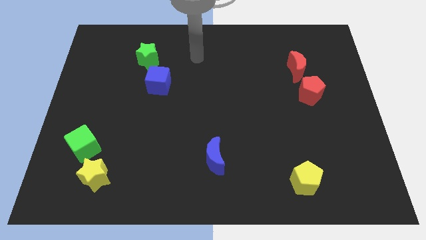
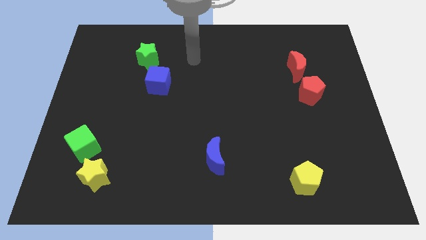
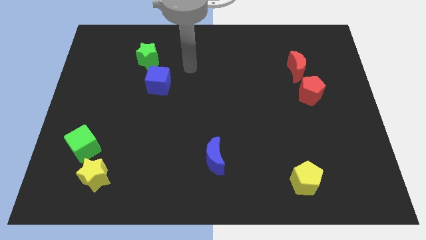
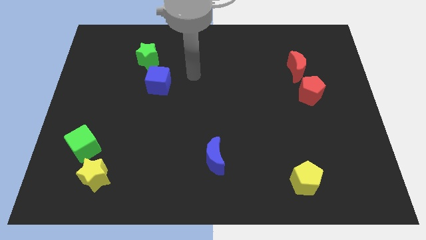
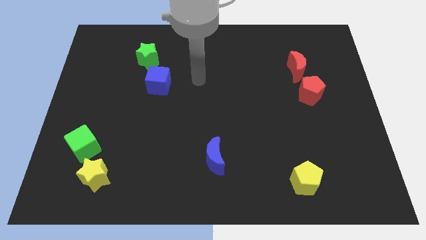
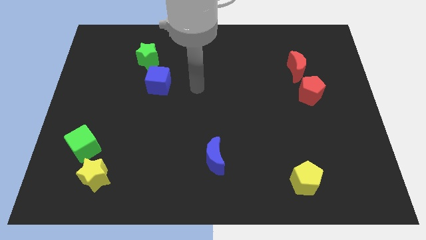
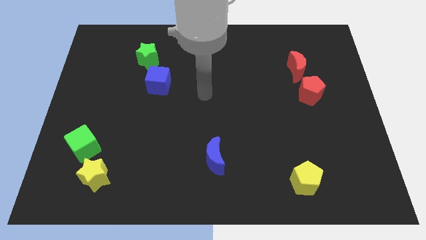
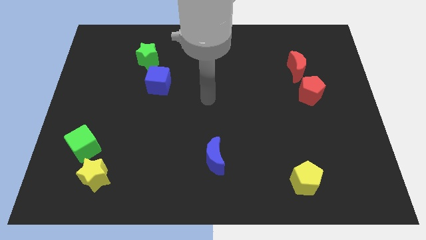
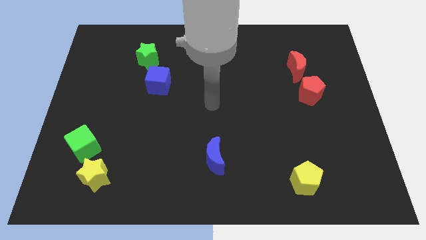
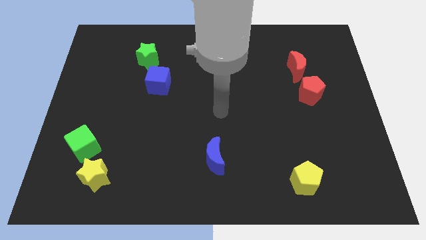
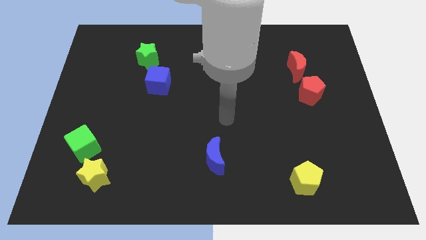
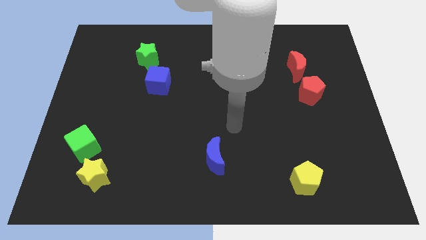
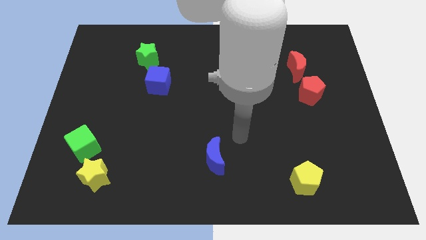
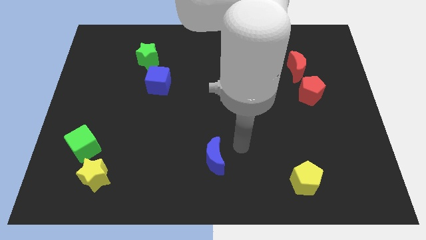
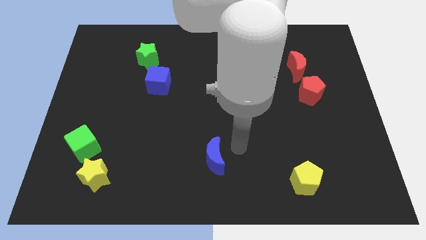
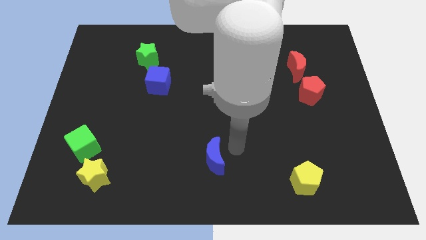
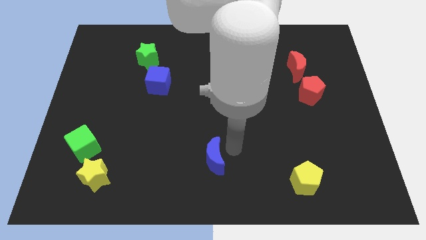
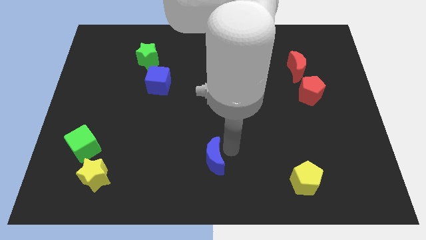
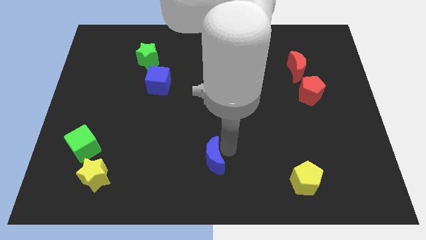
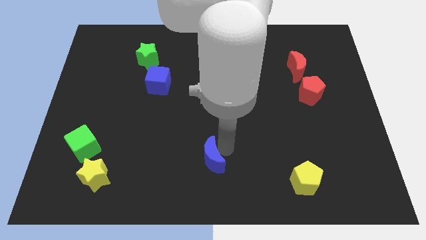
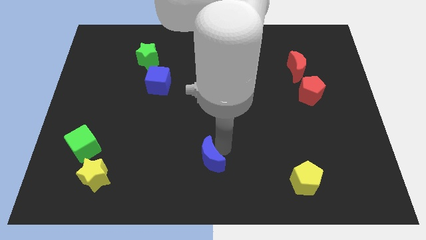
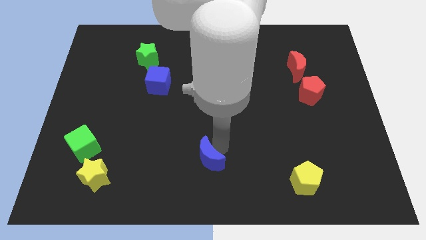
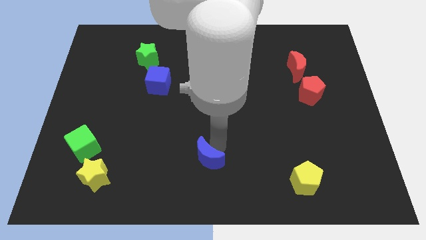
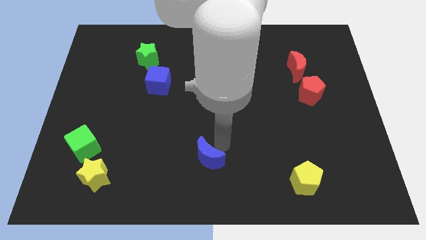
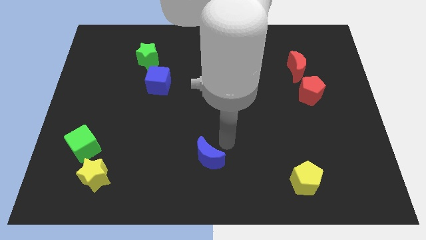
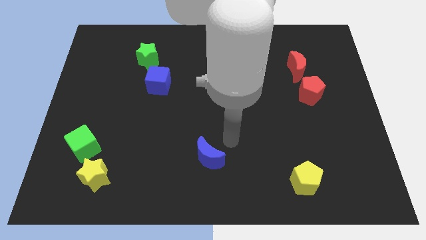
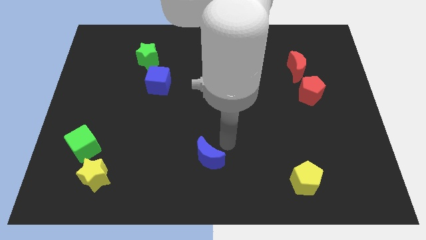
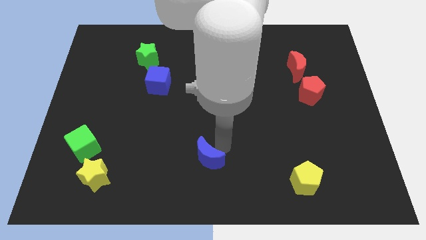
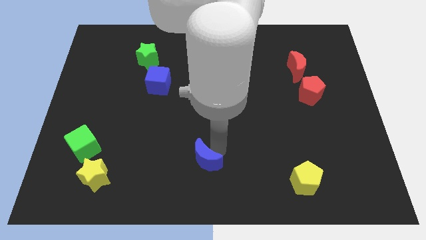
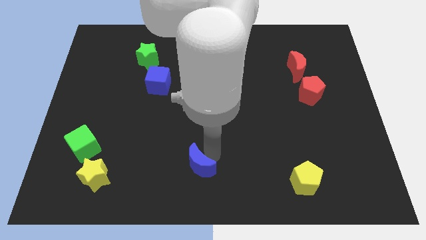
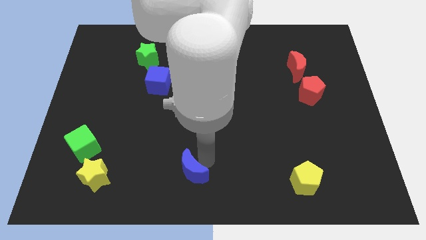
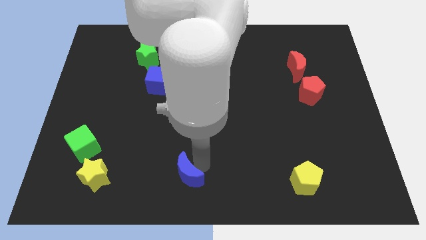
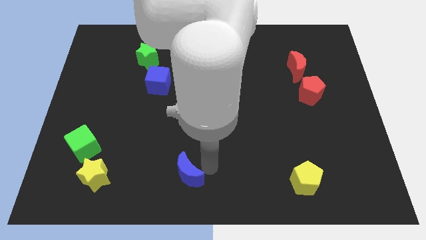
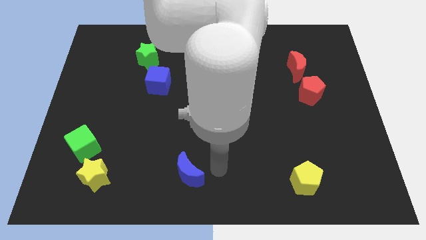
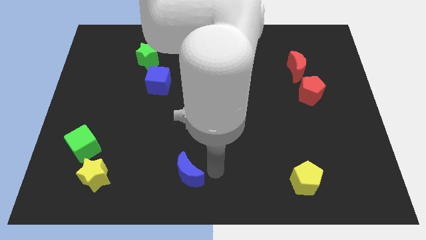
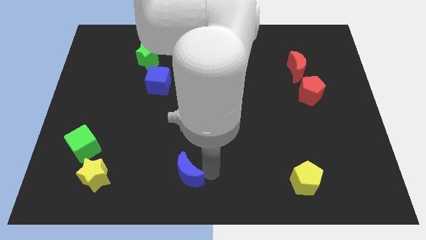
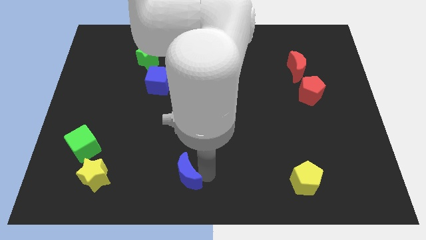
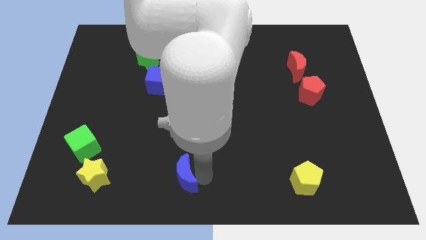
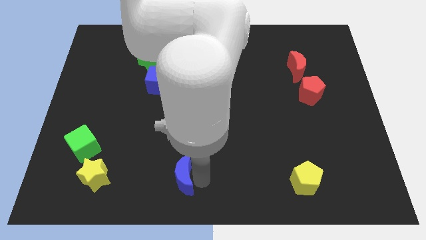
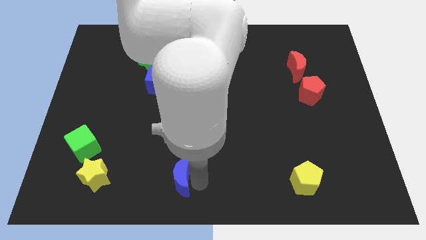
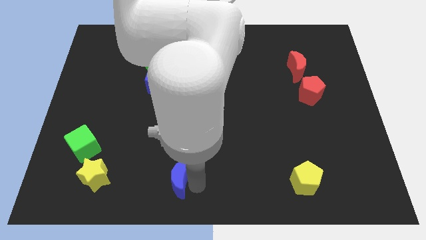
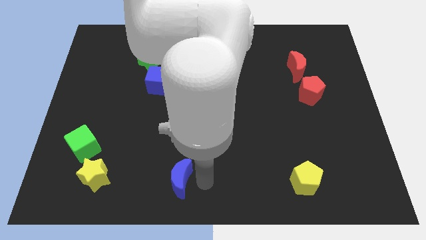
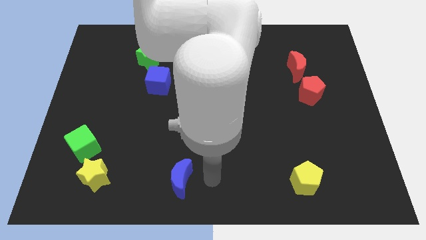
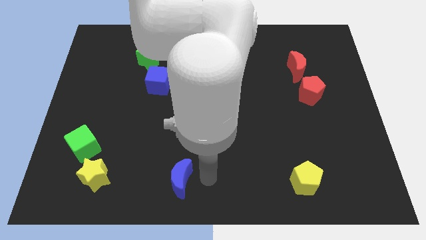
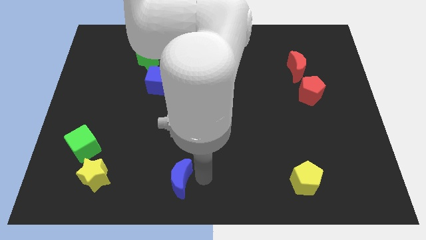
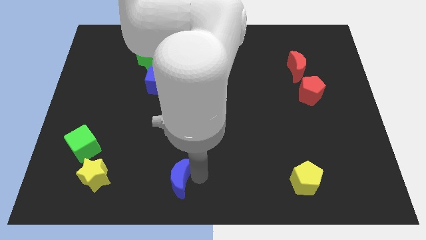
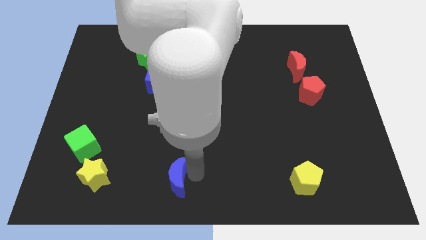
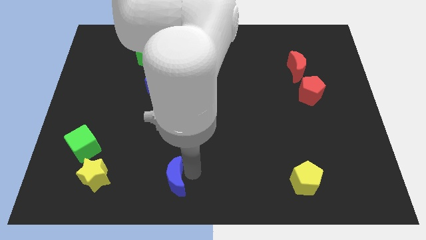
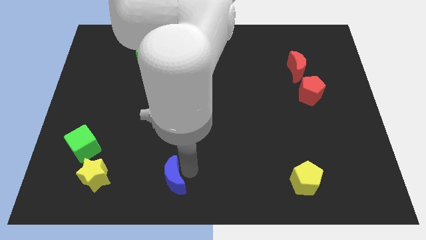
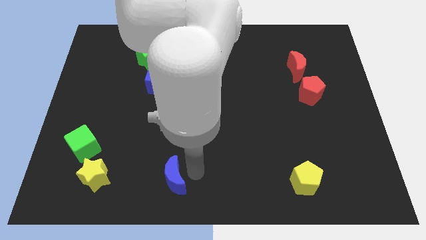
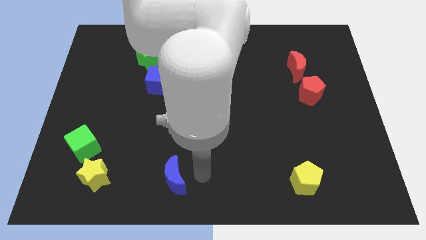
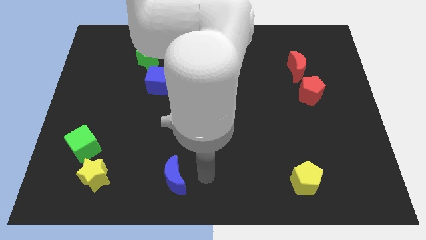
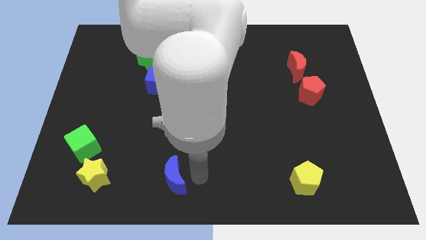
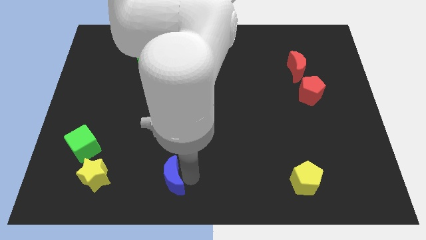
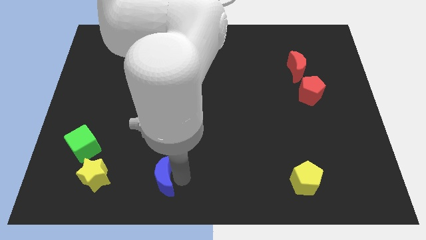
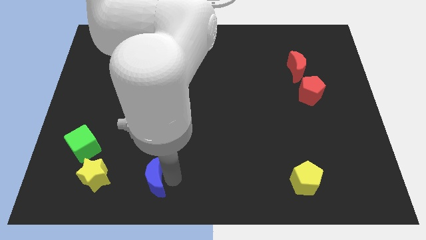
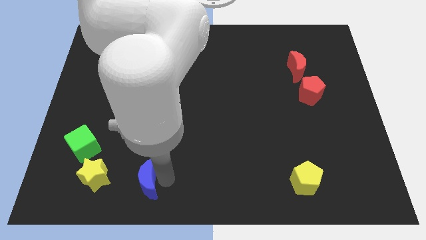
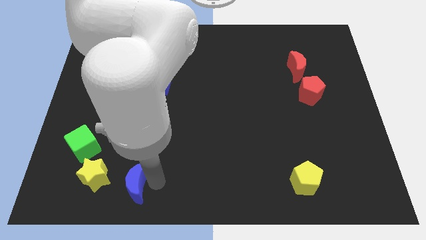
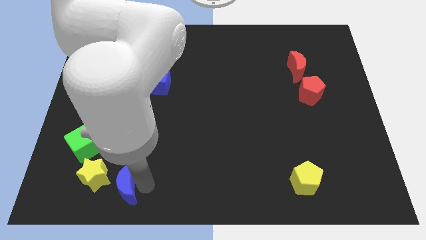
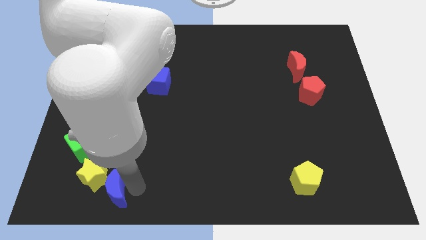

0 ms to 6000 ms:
move the blue moon towards the yellow star

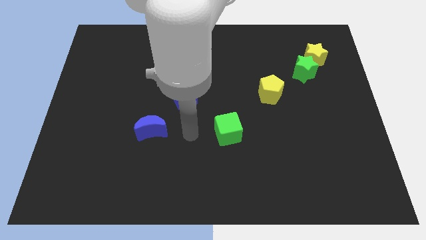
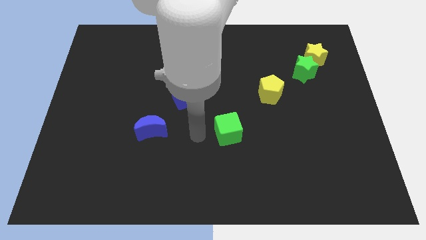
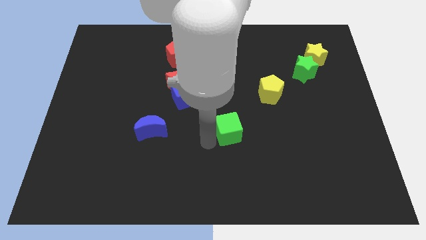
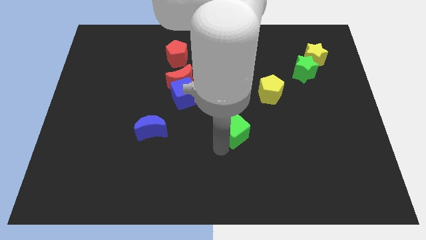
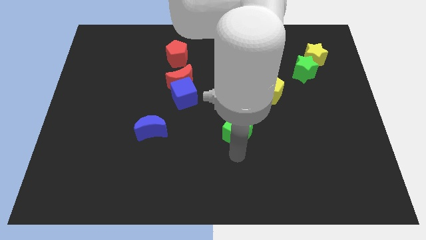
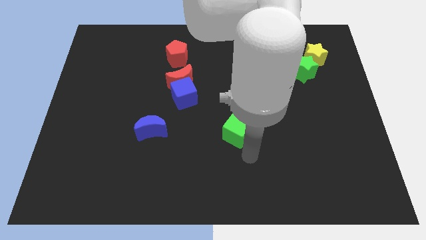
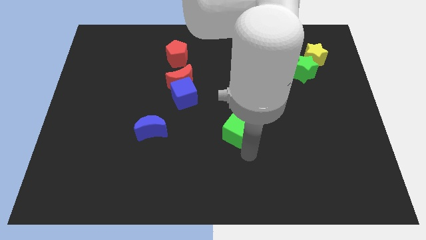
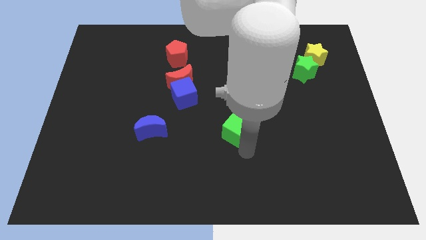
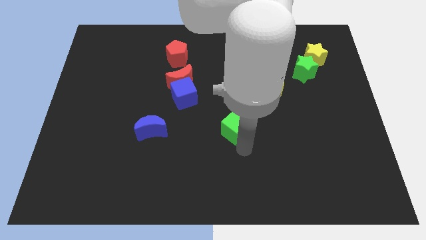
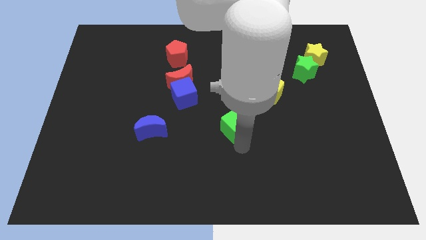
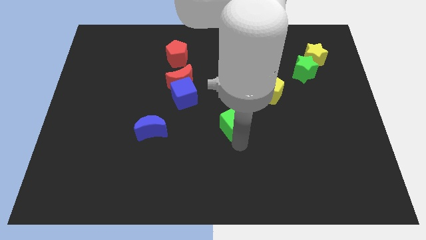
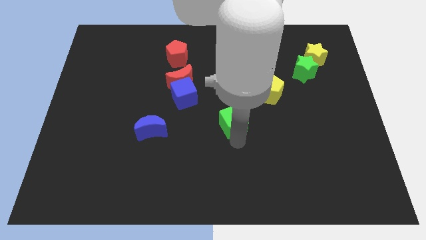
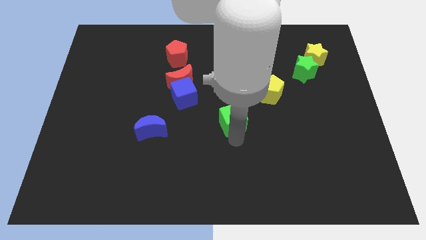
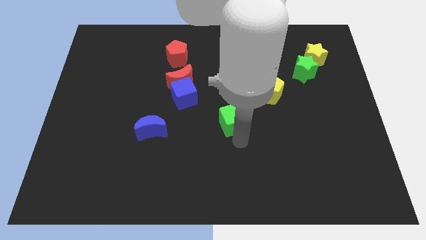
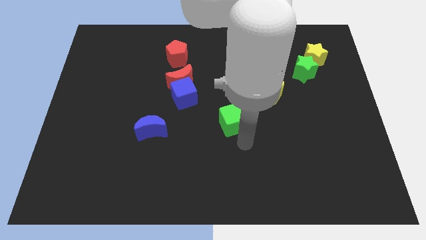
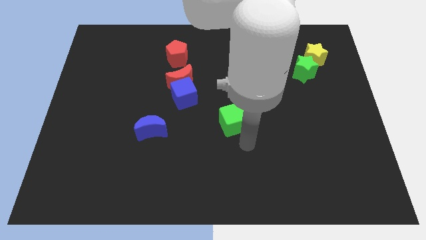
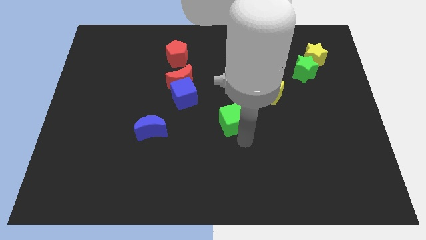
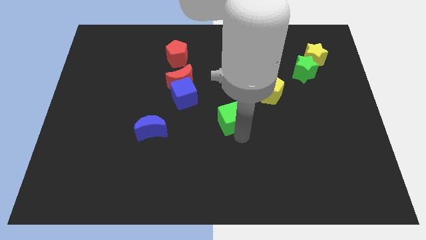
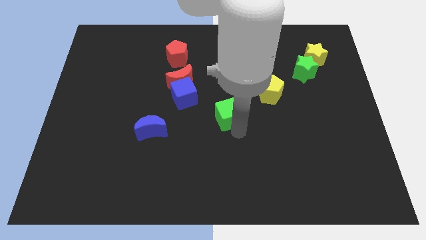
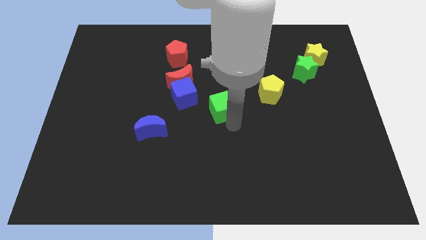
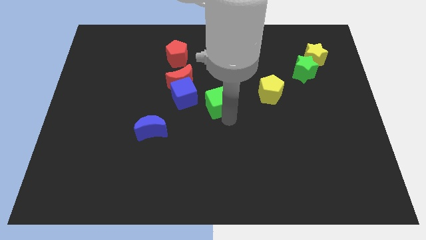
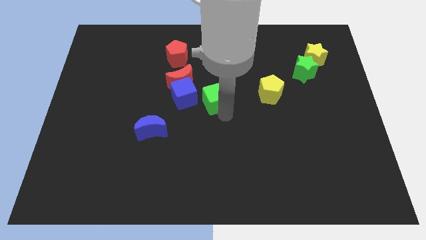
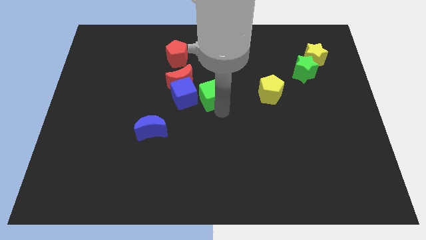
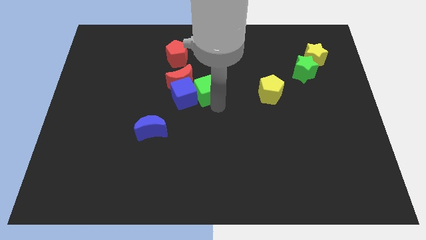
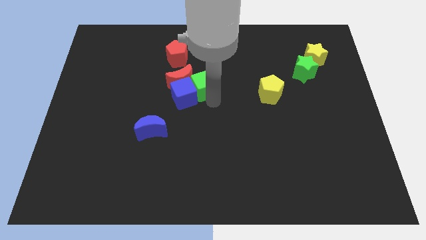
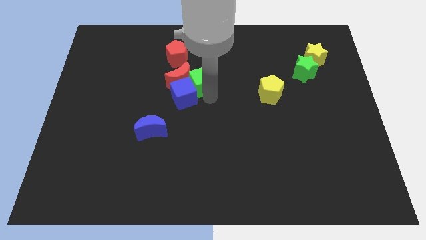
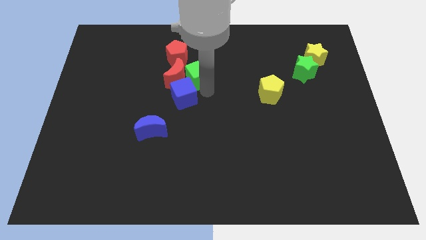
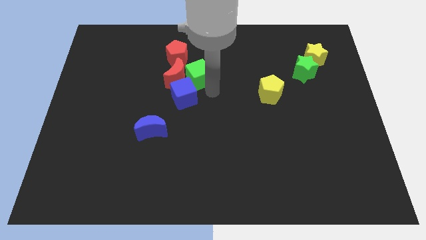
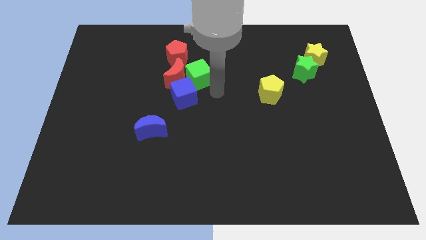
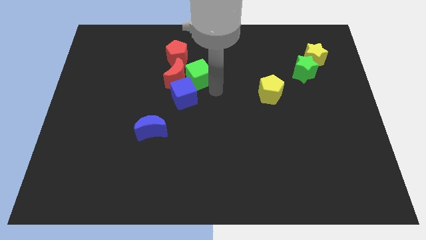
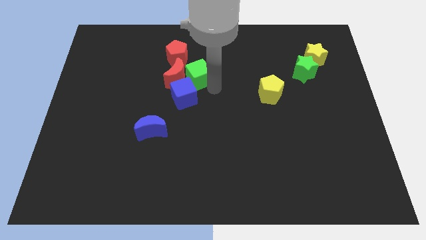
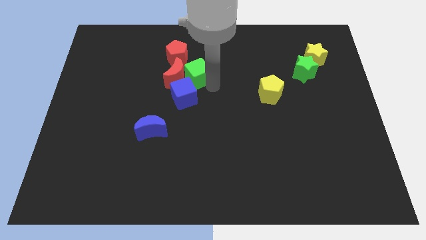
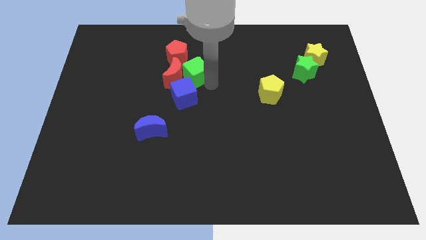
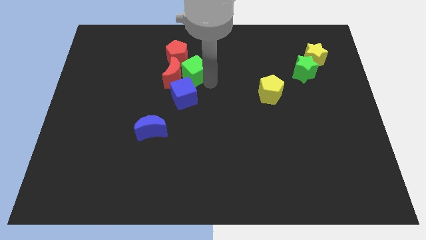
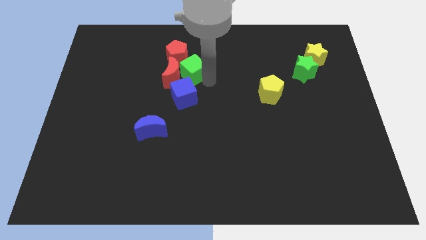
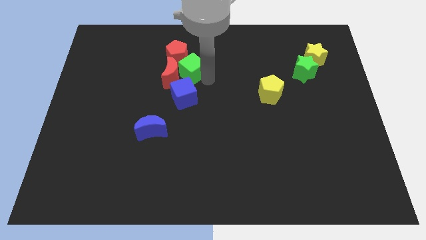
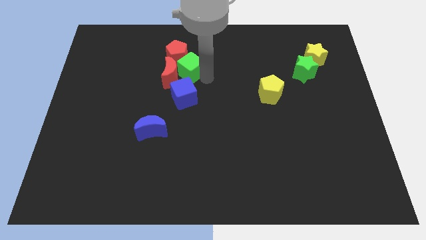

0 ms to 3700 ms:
put the green cube close to the red pentagon
